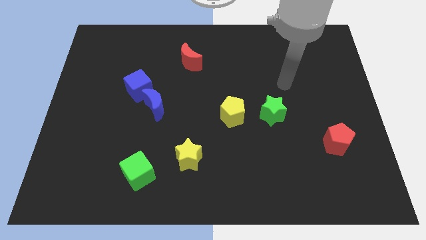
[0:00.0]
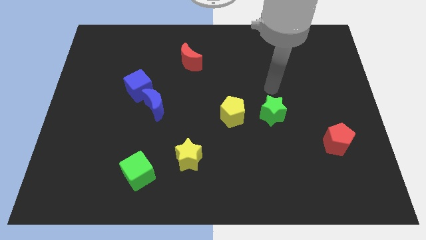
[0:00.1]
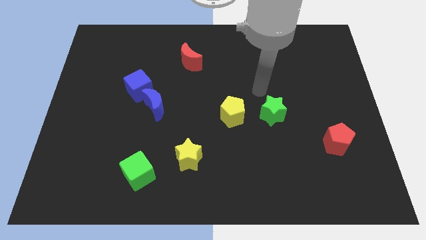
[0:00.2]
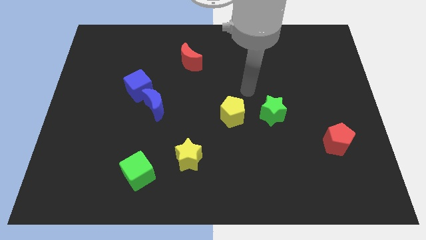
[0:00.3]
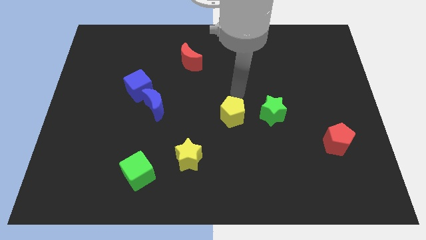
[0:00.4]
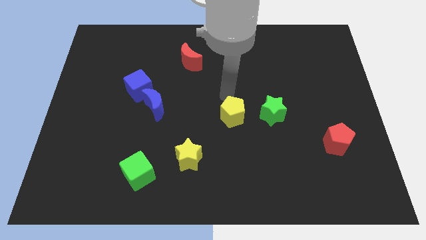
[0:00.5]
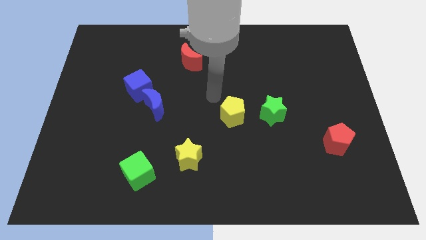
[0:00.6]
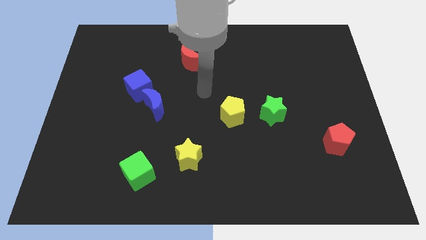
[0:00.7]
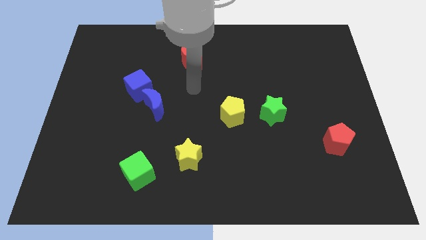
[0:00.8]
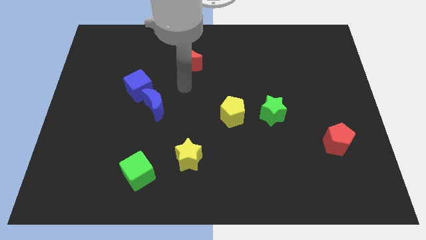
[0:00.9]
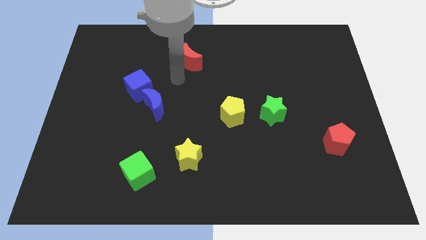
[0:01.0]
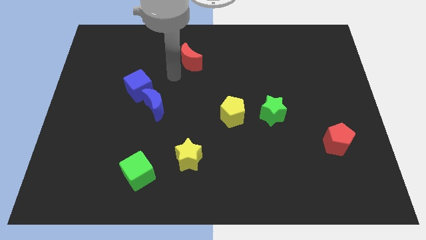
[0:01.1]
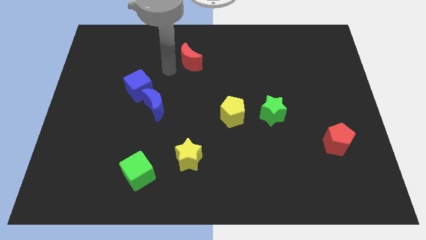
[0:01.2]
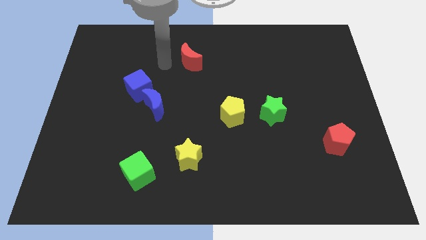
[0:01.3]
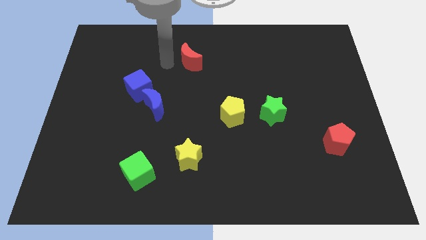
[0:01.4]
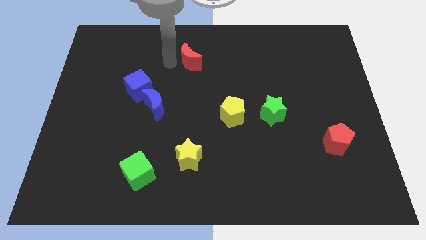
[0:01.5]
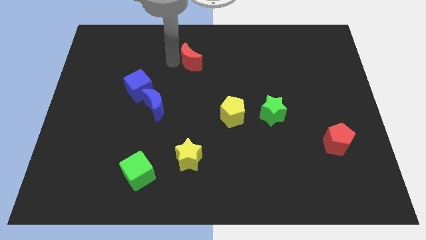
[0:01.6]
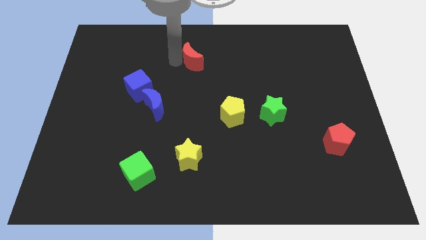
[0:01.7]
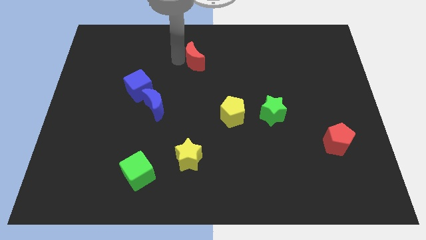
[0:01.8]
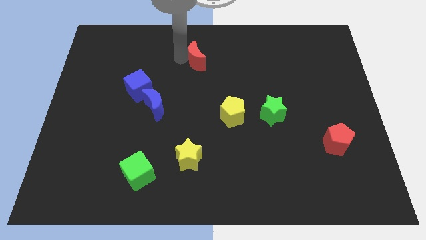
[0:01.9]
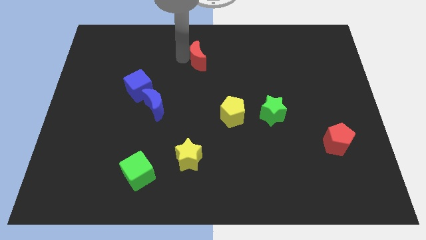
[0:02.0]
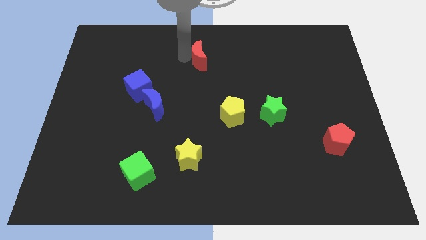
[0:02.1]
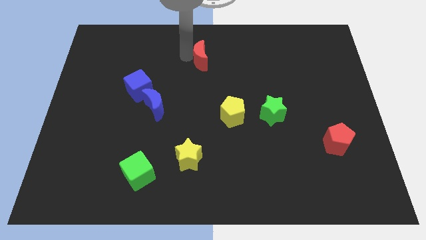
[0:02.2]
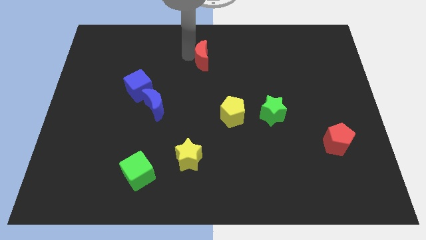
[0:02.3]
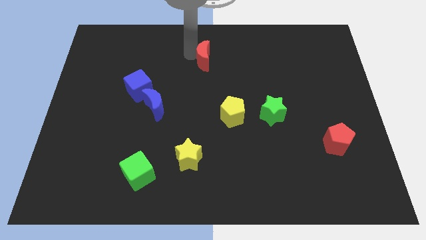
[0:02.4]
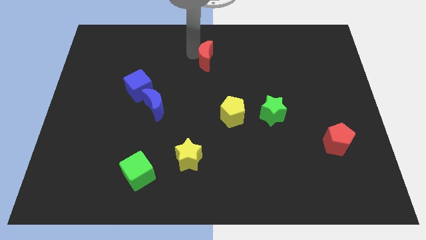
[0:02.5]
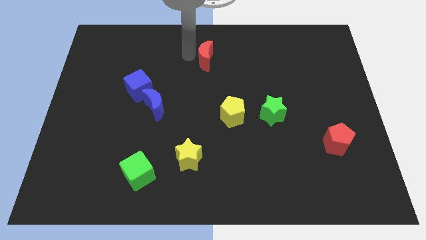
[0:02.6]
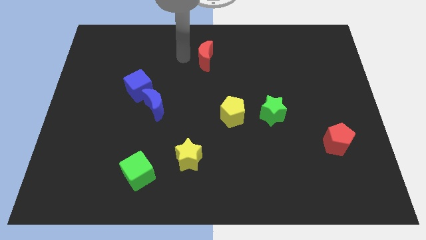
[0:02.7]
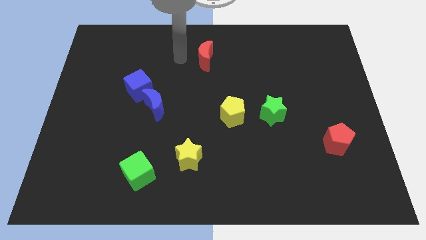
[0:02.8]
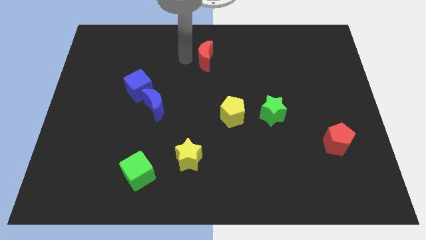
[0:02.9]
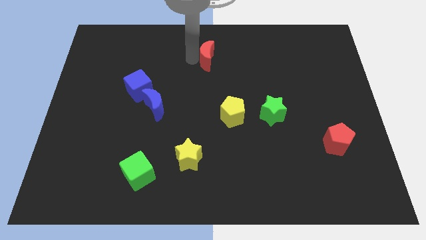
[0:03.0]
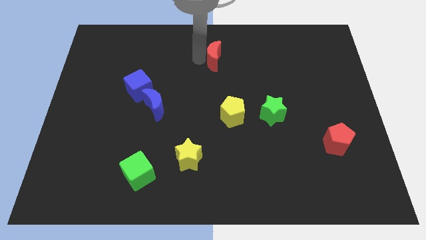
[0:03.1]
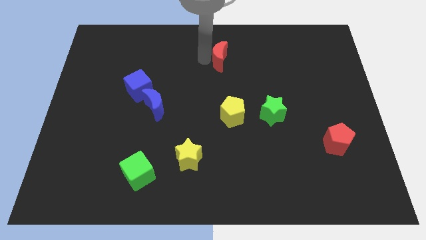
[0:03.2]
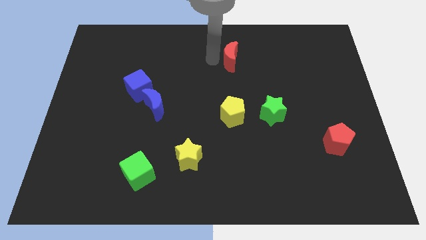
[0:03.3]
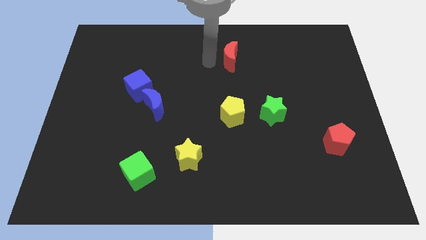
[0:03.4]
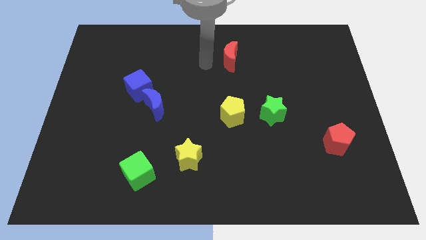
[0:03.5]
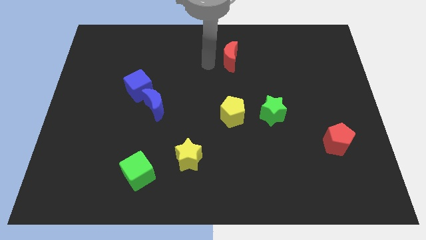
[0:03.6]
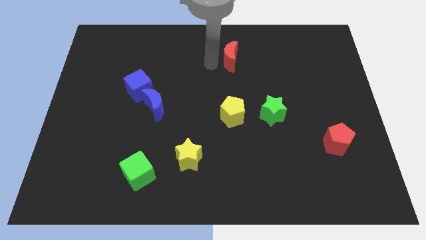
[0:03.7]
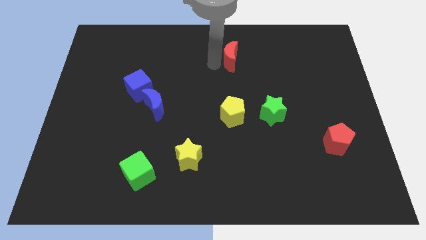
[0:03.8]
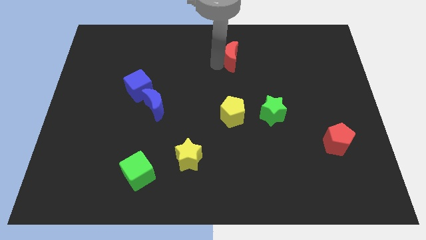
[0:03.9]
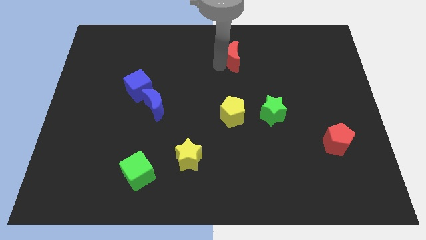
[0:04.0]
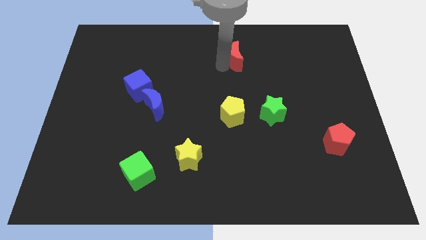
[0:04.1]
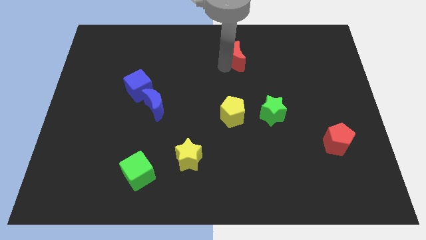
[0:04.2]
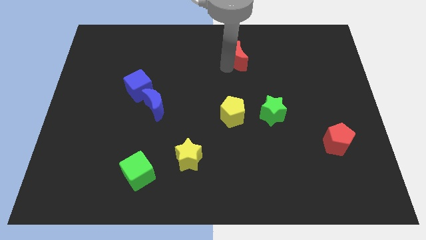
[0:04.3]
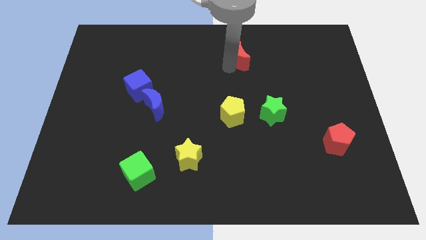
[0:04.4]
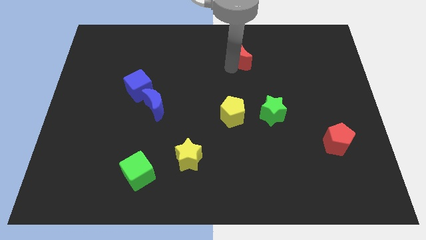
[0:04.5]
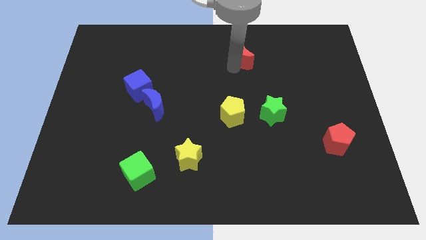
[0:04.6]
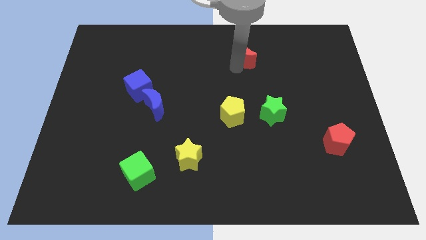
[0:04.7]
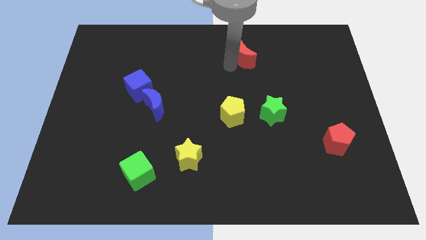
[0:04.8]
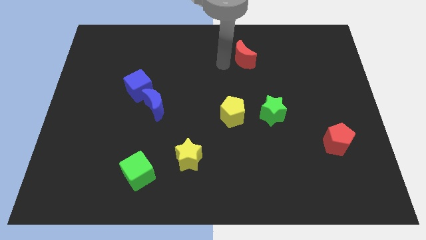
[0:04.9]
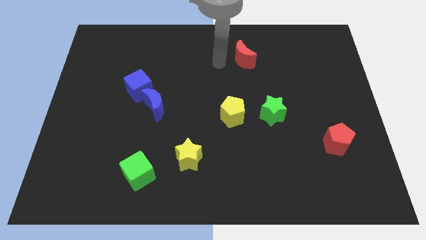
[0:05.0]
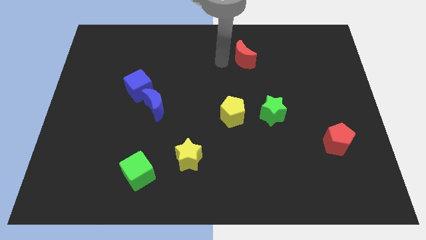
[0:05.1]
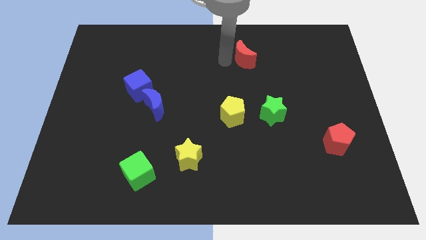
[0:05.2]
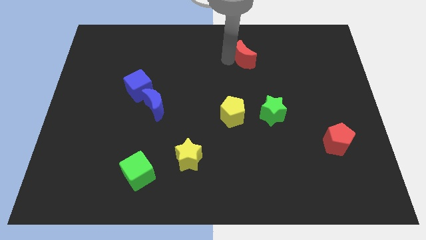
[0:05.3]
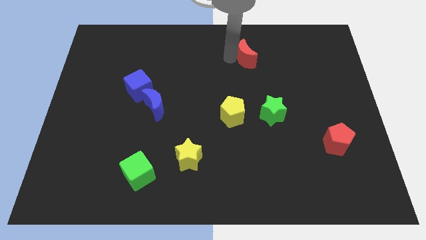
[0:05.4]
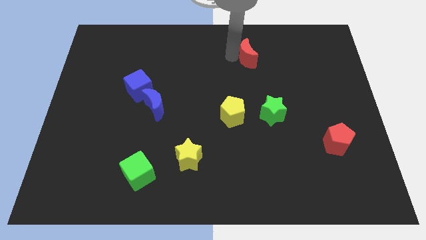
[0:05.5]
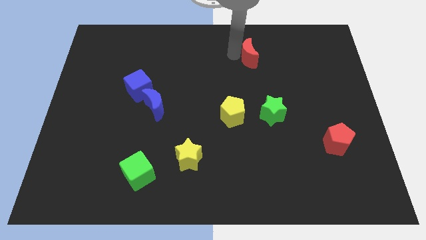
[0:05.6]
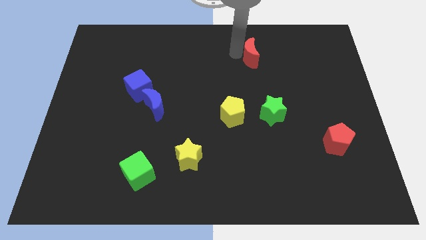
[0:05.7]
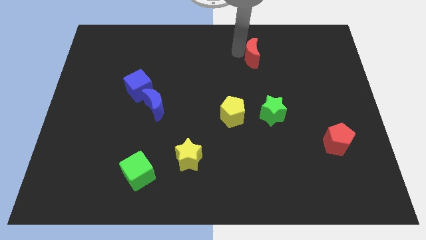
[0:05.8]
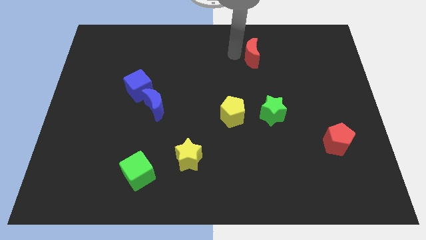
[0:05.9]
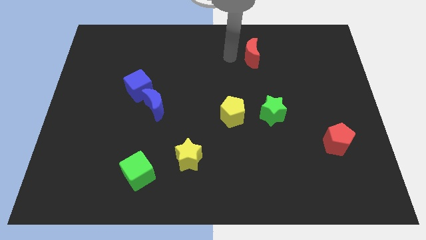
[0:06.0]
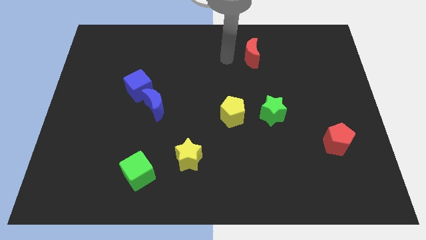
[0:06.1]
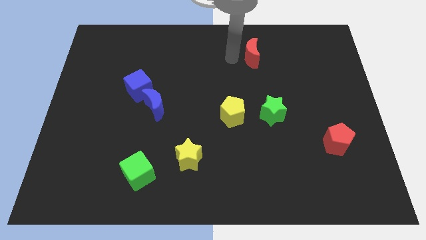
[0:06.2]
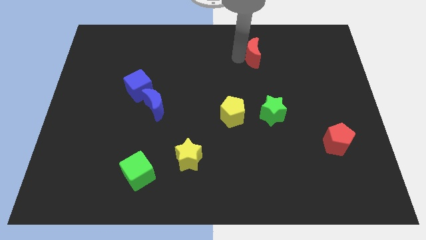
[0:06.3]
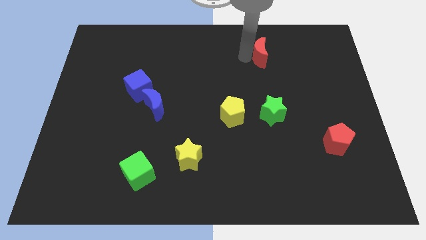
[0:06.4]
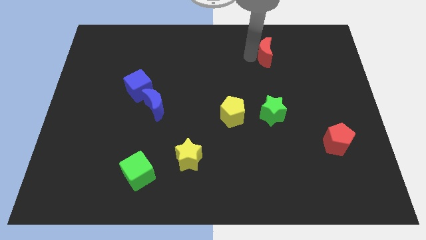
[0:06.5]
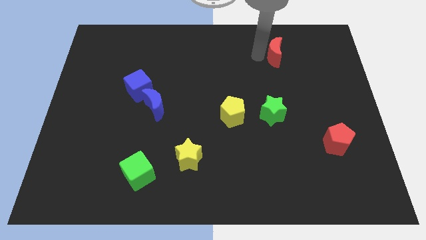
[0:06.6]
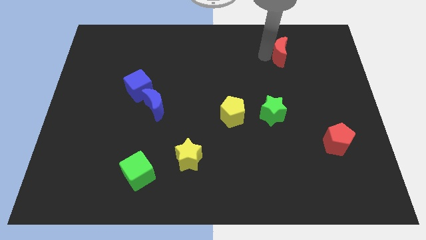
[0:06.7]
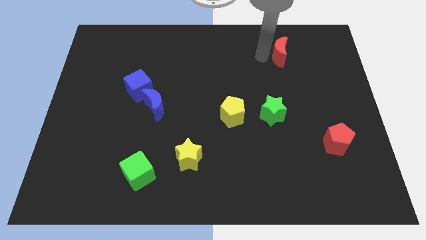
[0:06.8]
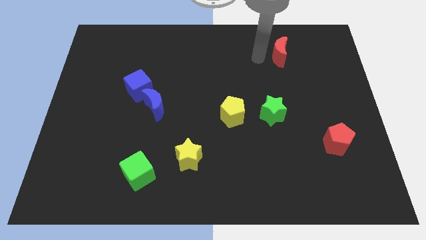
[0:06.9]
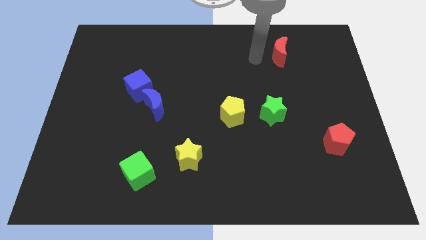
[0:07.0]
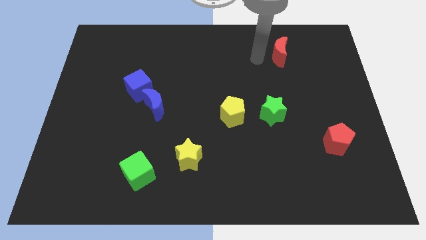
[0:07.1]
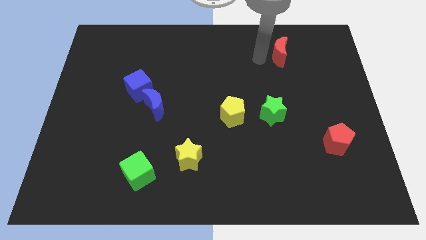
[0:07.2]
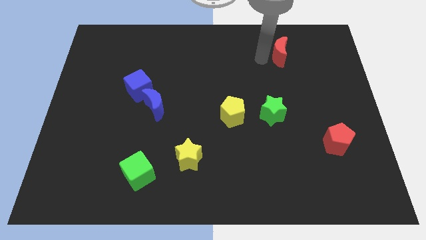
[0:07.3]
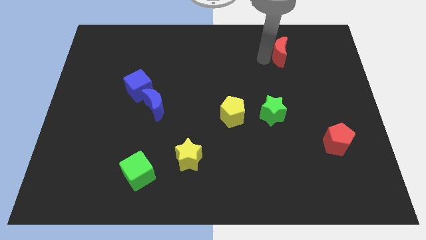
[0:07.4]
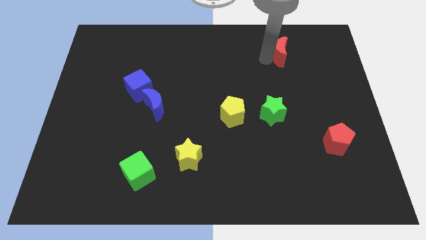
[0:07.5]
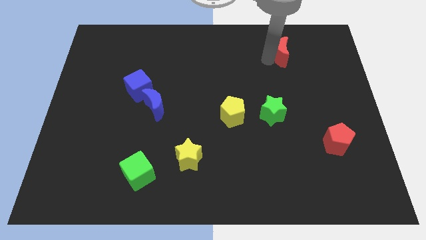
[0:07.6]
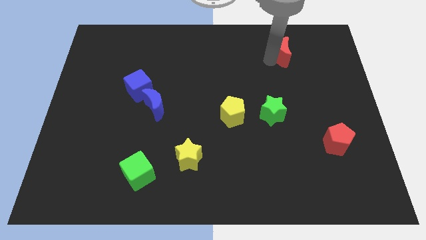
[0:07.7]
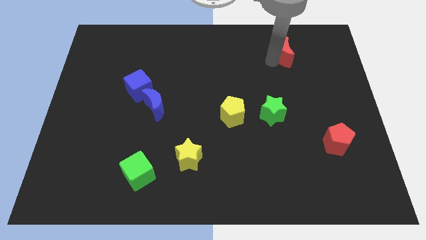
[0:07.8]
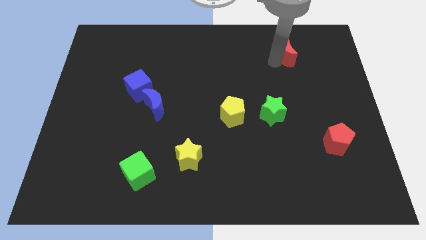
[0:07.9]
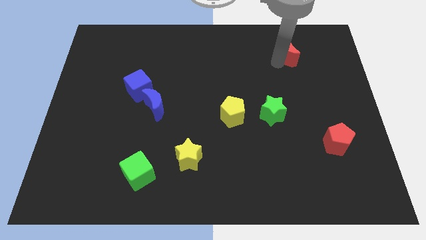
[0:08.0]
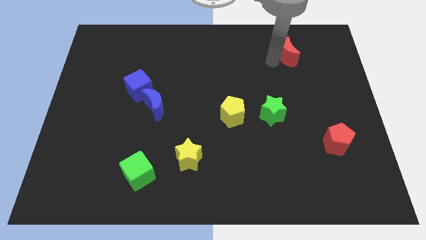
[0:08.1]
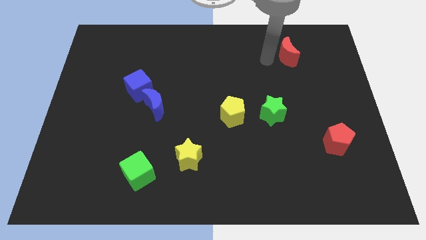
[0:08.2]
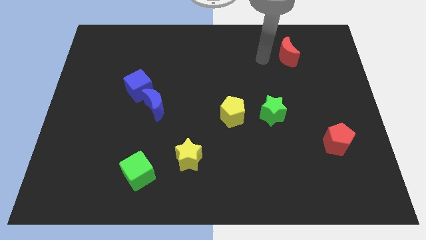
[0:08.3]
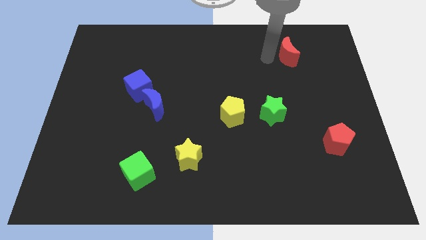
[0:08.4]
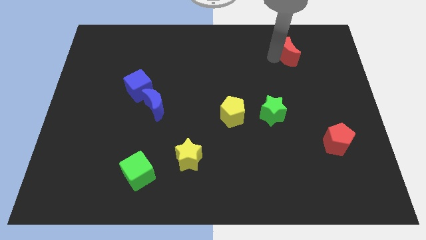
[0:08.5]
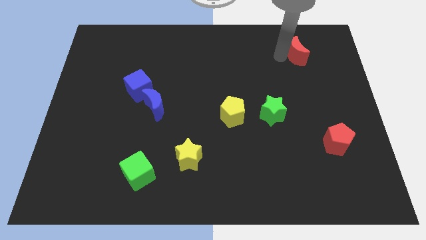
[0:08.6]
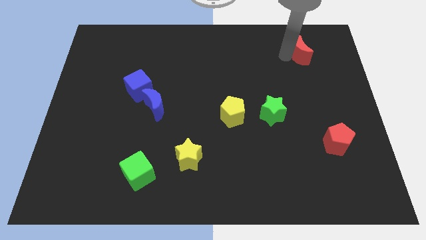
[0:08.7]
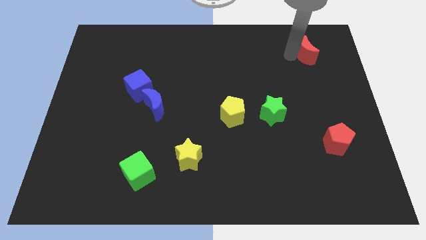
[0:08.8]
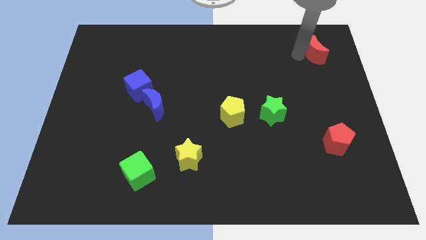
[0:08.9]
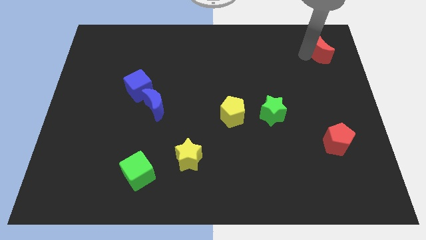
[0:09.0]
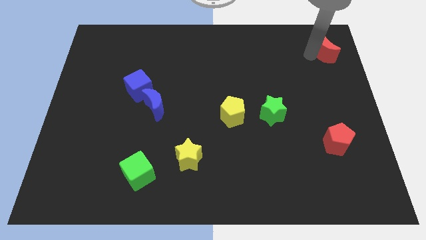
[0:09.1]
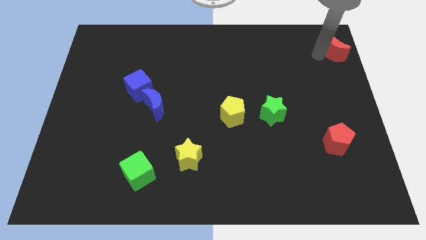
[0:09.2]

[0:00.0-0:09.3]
put the red moon to the top right
